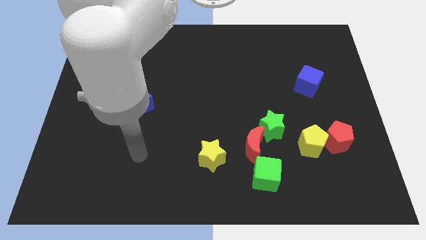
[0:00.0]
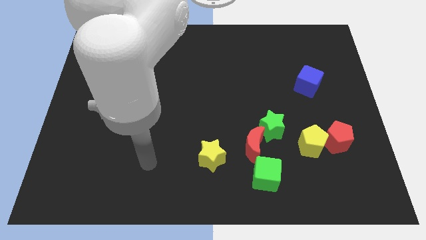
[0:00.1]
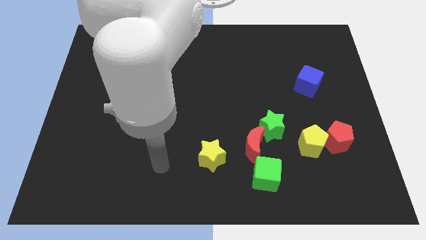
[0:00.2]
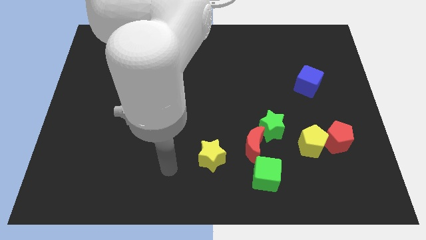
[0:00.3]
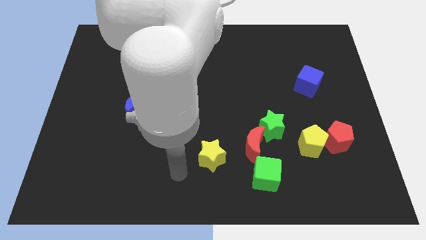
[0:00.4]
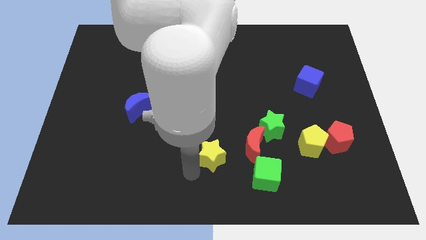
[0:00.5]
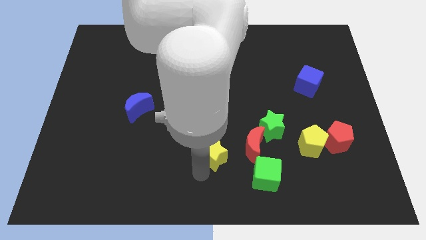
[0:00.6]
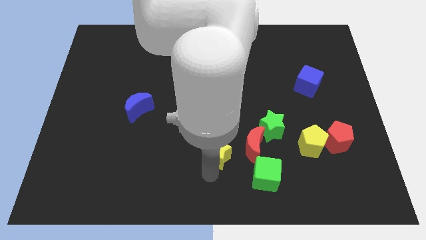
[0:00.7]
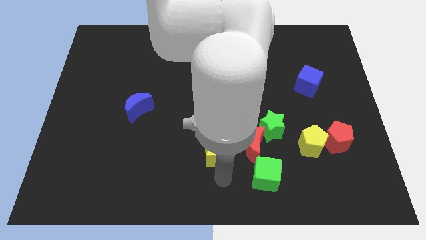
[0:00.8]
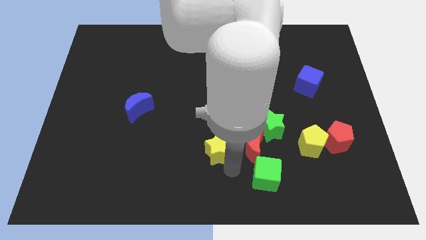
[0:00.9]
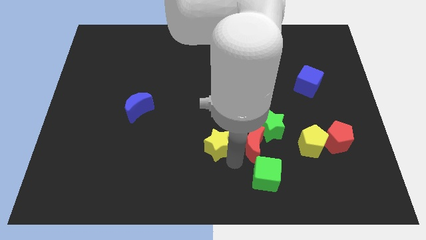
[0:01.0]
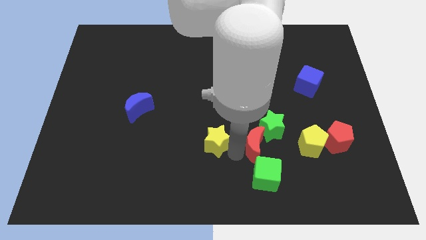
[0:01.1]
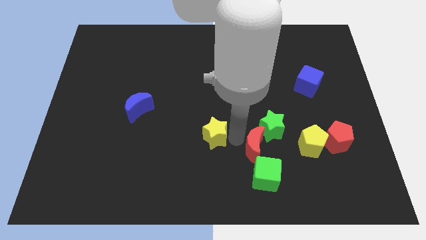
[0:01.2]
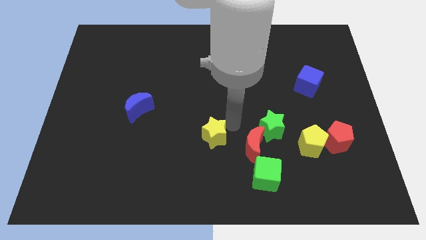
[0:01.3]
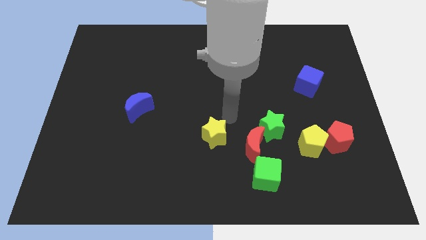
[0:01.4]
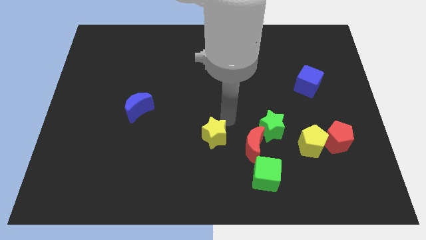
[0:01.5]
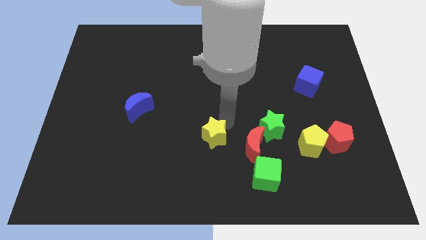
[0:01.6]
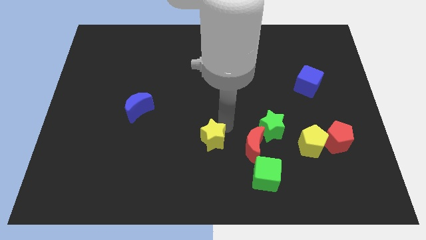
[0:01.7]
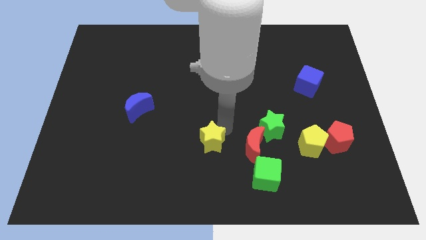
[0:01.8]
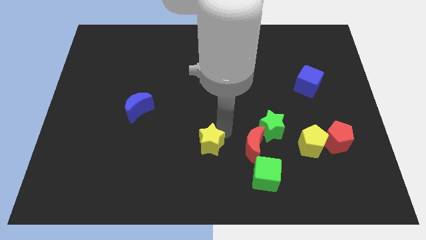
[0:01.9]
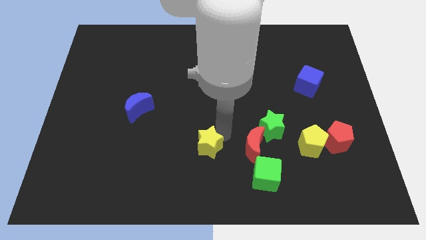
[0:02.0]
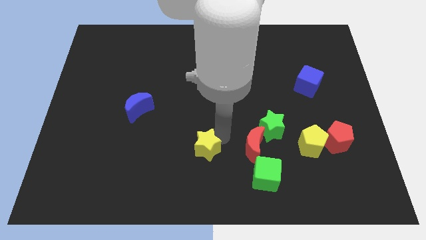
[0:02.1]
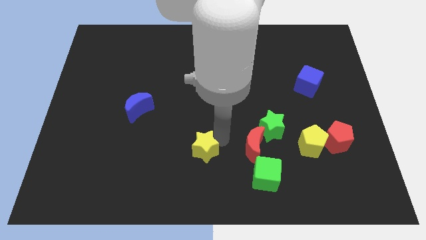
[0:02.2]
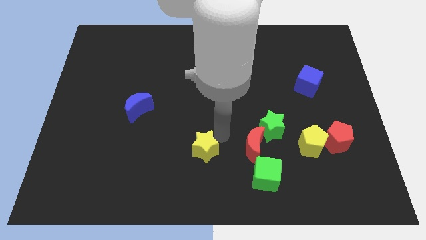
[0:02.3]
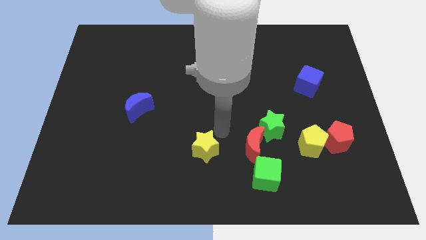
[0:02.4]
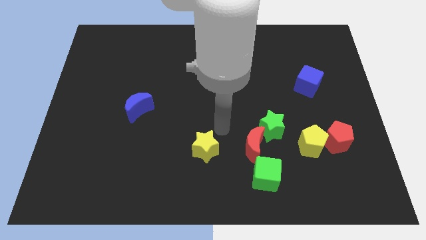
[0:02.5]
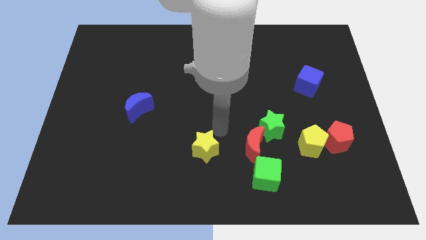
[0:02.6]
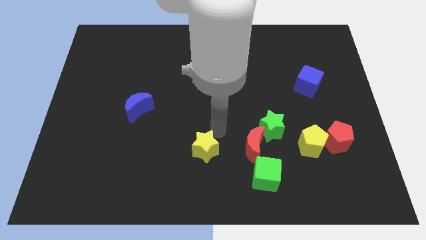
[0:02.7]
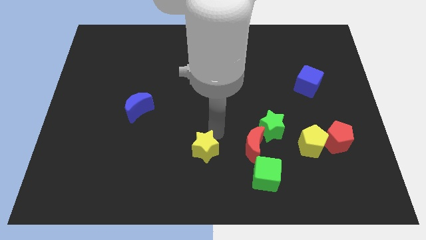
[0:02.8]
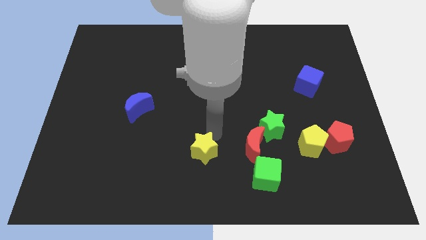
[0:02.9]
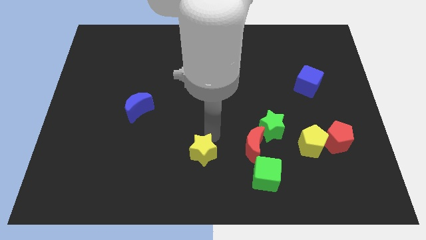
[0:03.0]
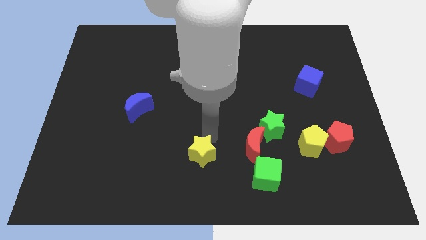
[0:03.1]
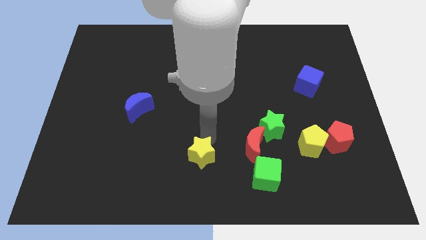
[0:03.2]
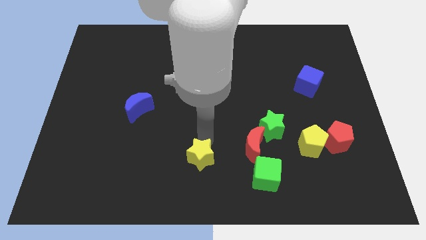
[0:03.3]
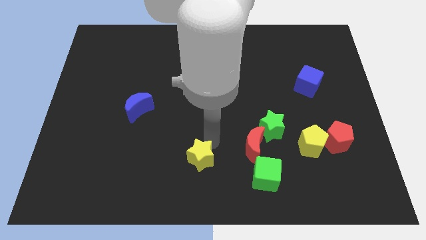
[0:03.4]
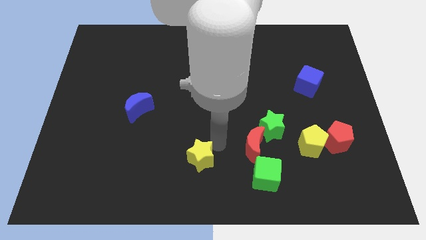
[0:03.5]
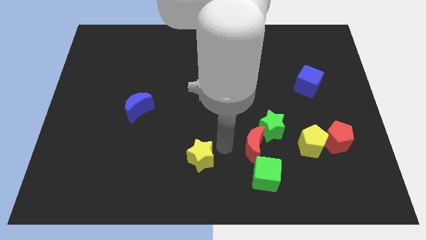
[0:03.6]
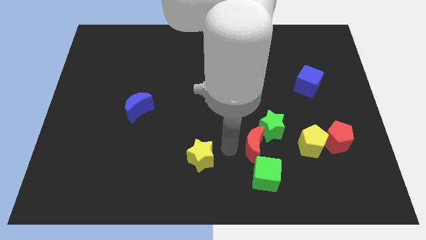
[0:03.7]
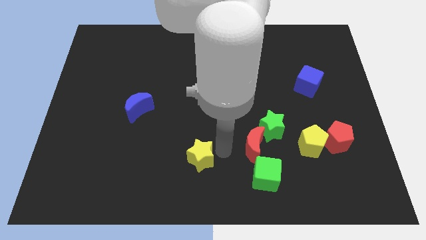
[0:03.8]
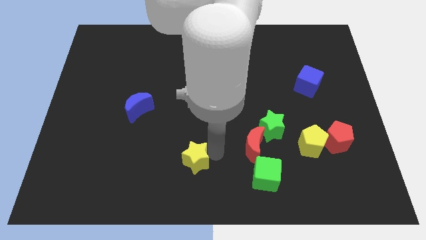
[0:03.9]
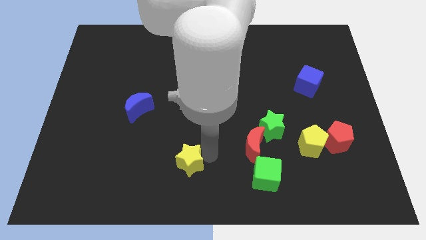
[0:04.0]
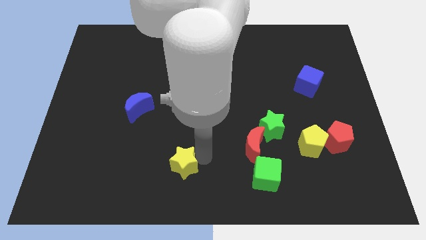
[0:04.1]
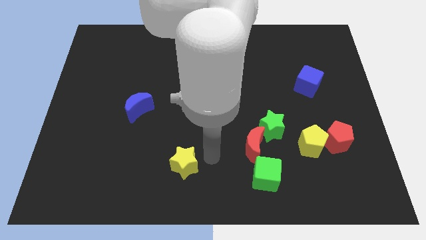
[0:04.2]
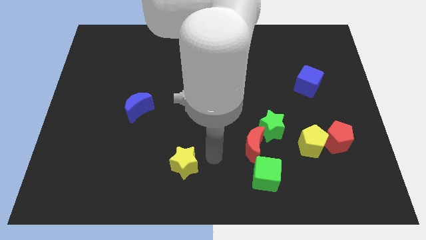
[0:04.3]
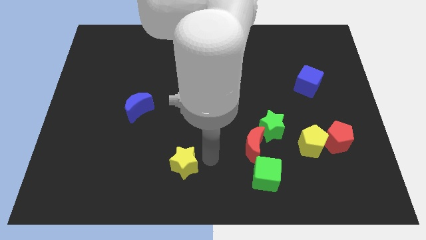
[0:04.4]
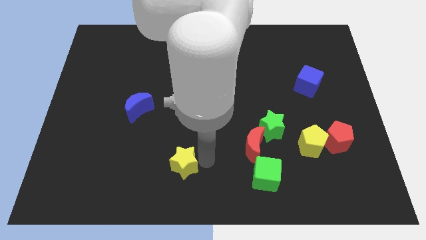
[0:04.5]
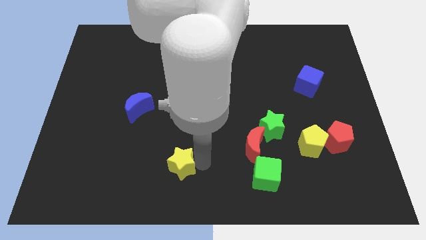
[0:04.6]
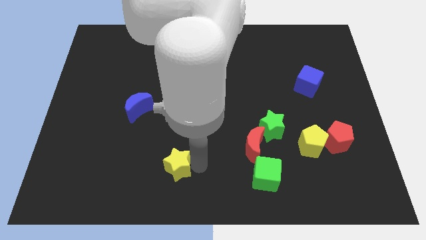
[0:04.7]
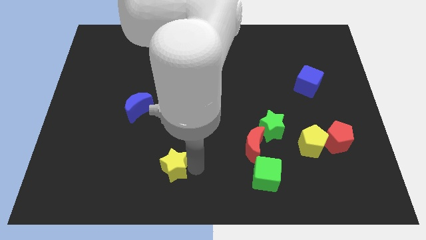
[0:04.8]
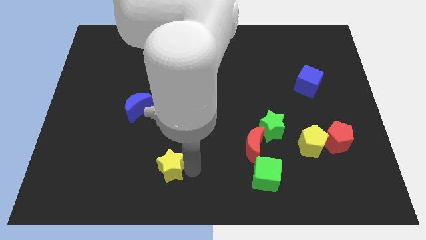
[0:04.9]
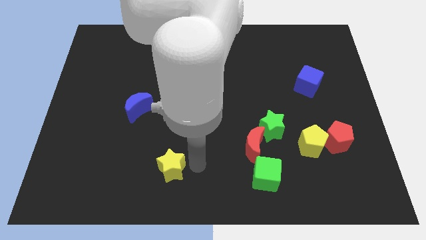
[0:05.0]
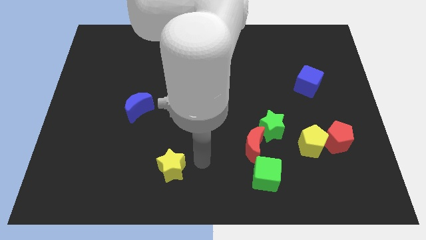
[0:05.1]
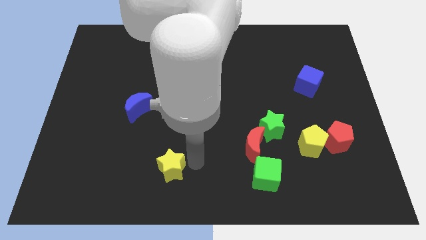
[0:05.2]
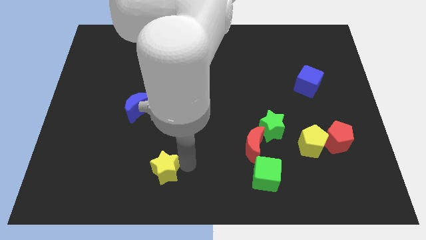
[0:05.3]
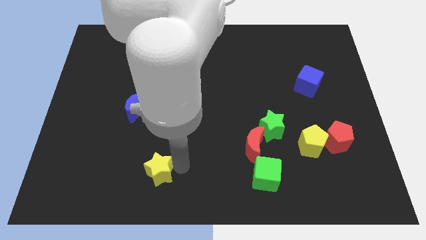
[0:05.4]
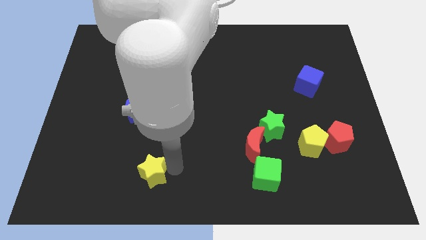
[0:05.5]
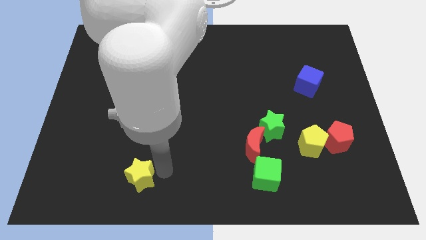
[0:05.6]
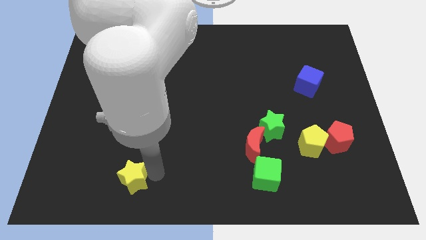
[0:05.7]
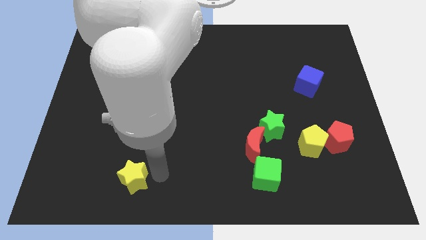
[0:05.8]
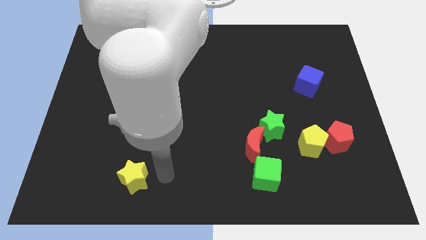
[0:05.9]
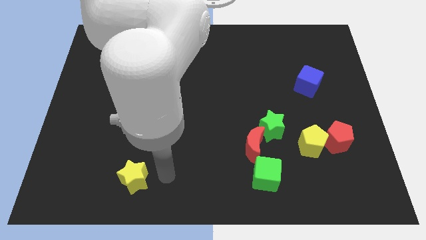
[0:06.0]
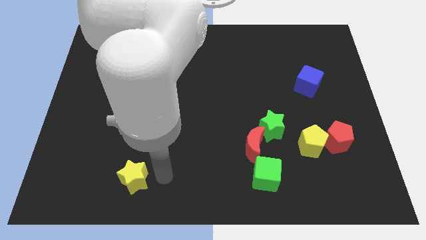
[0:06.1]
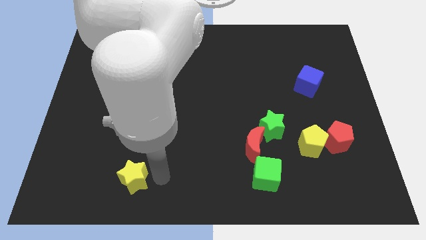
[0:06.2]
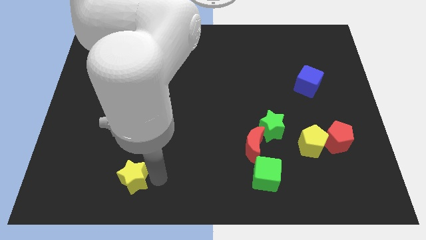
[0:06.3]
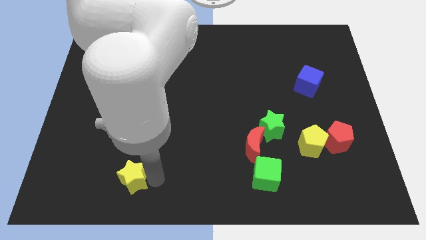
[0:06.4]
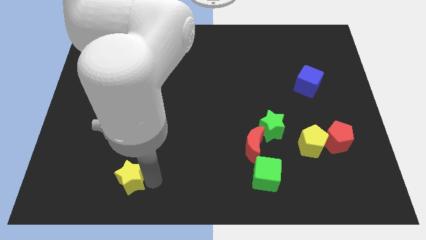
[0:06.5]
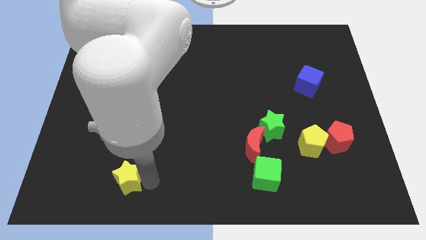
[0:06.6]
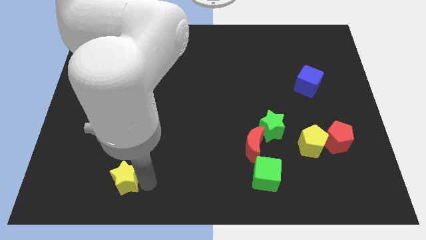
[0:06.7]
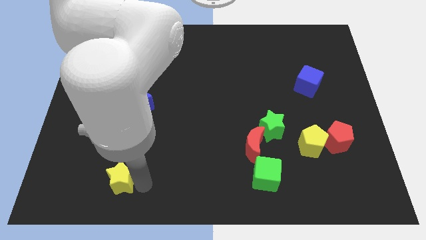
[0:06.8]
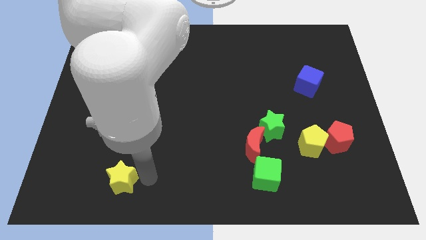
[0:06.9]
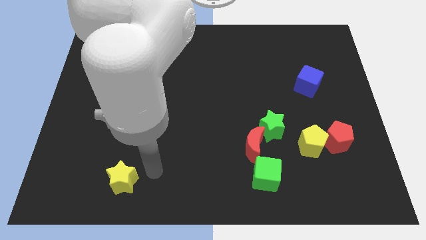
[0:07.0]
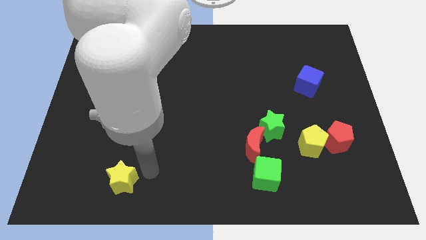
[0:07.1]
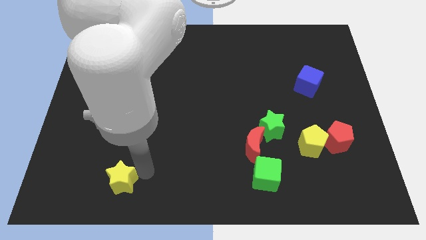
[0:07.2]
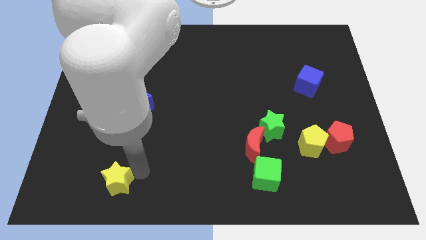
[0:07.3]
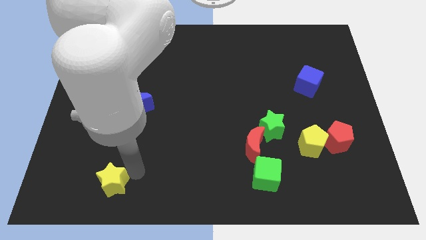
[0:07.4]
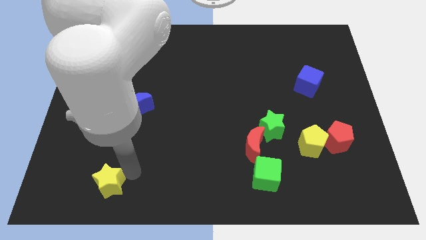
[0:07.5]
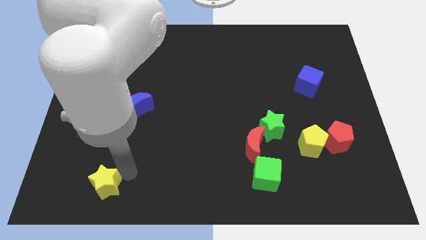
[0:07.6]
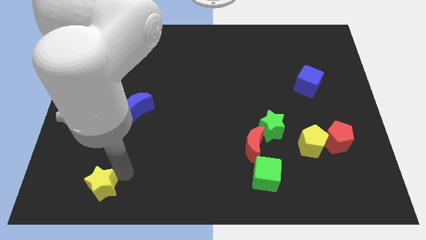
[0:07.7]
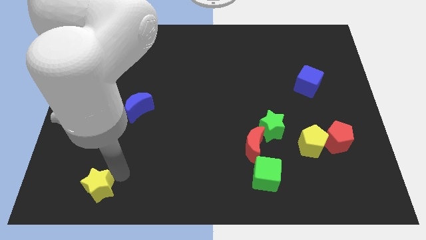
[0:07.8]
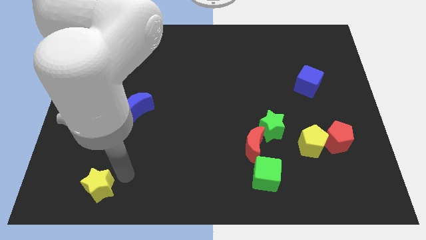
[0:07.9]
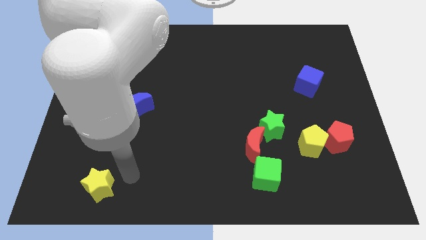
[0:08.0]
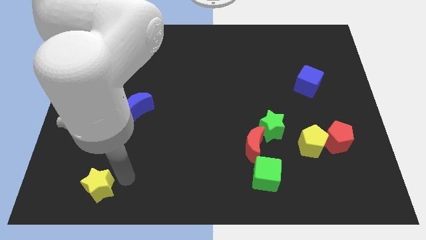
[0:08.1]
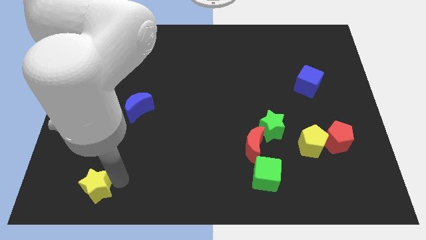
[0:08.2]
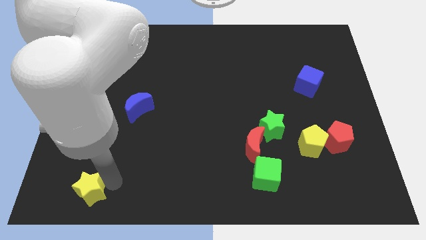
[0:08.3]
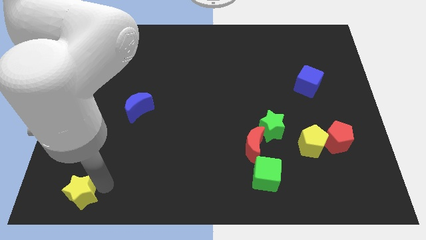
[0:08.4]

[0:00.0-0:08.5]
move the yellow star to the lower left corner
